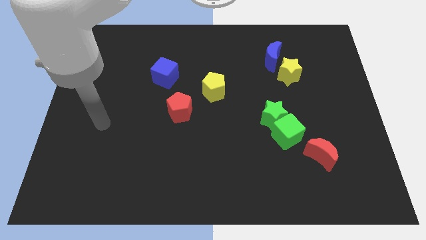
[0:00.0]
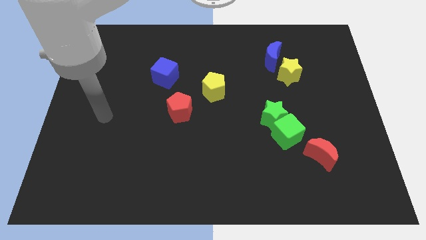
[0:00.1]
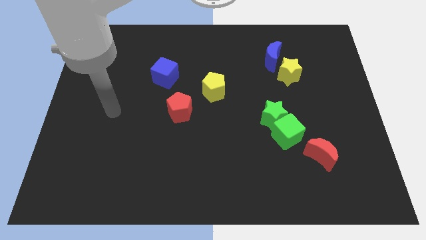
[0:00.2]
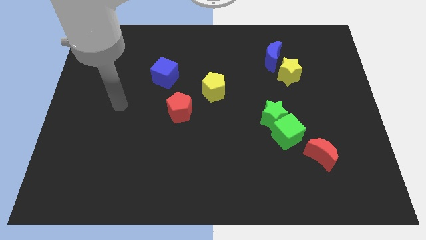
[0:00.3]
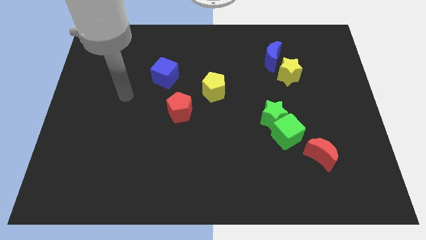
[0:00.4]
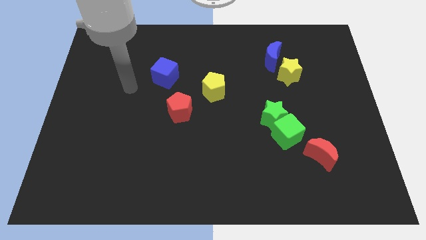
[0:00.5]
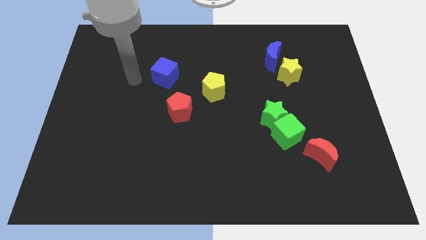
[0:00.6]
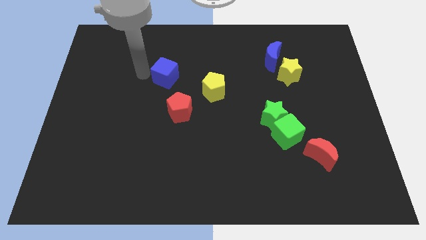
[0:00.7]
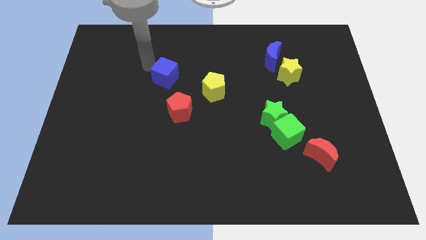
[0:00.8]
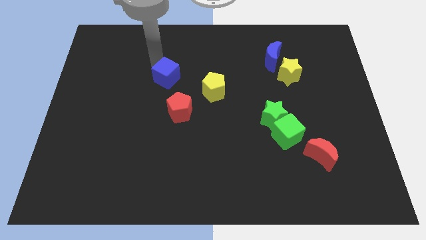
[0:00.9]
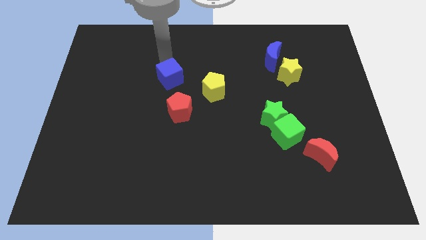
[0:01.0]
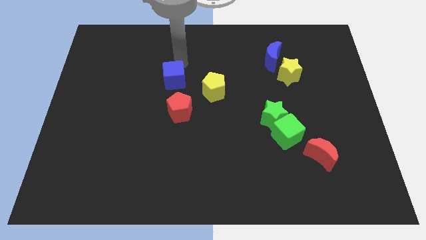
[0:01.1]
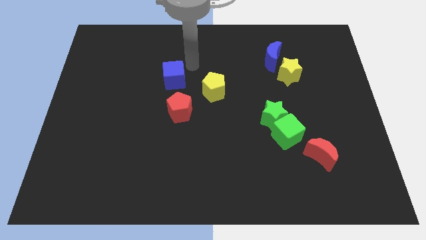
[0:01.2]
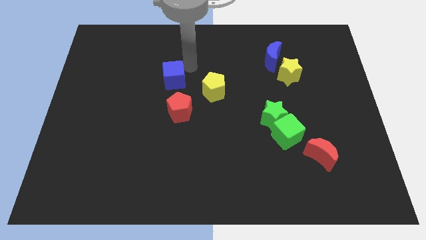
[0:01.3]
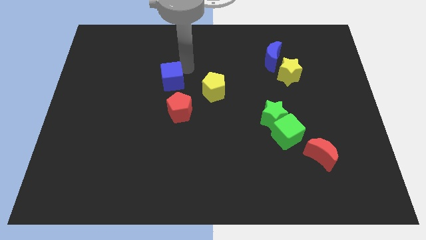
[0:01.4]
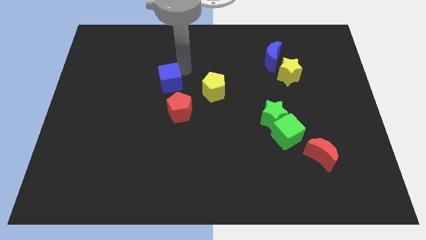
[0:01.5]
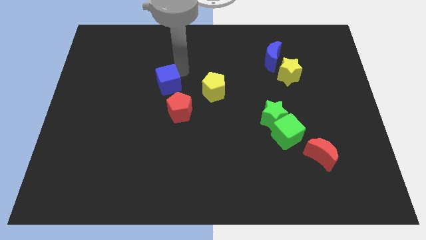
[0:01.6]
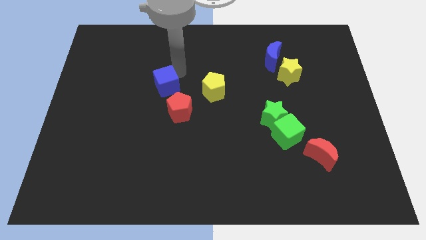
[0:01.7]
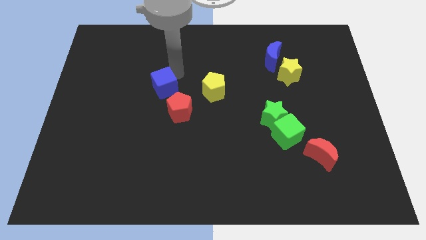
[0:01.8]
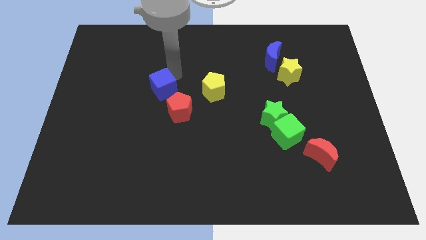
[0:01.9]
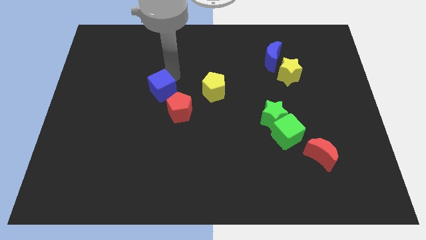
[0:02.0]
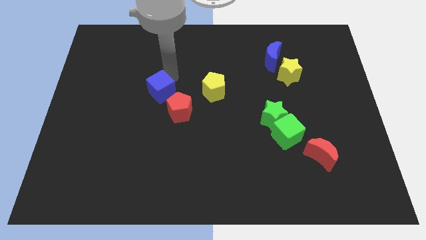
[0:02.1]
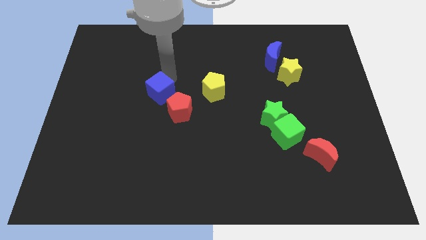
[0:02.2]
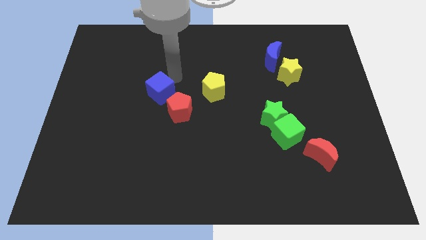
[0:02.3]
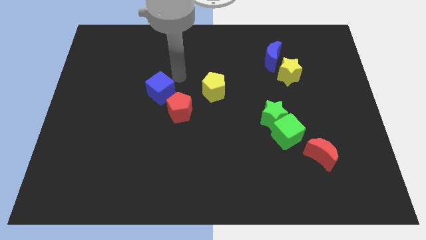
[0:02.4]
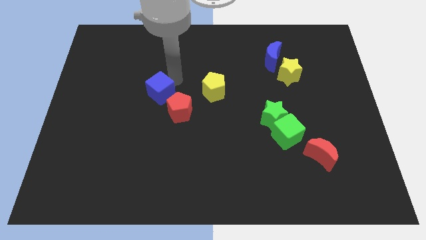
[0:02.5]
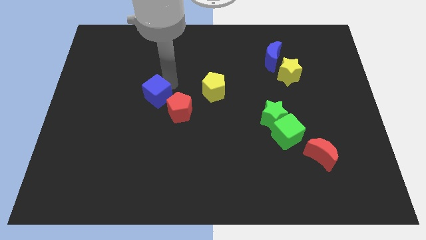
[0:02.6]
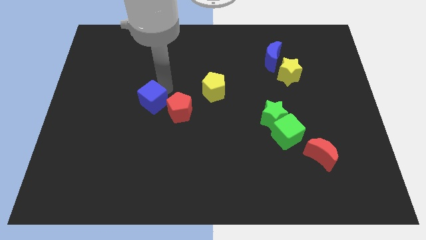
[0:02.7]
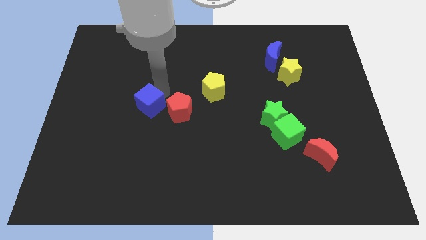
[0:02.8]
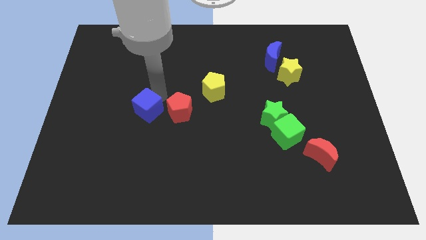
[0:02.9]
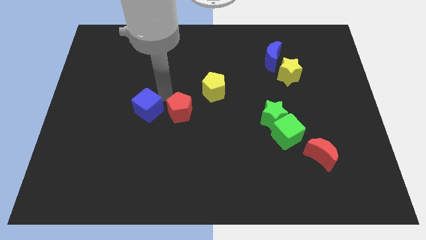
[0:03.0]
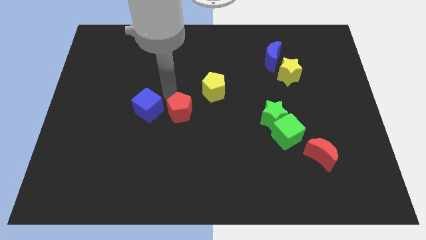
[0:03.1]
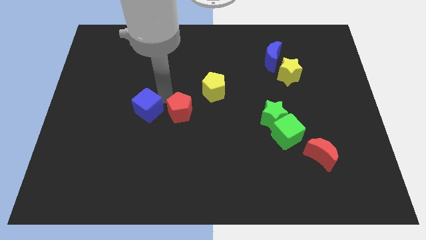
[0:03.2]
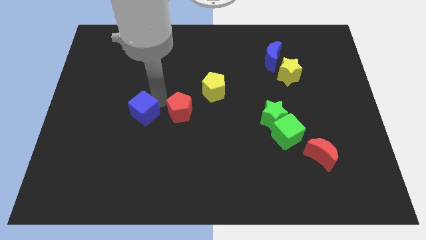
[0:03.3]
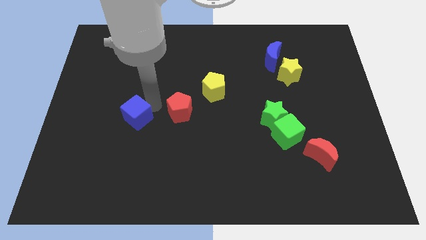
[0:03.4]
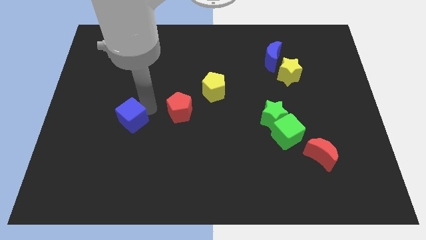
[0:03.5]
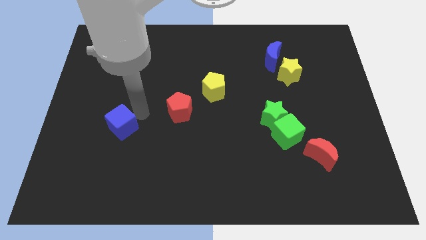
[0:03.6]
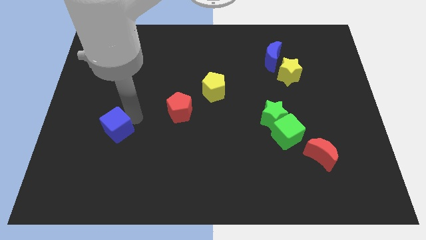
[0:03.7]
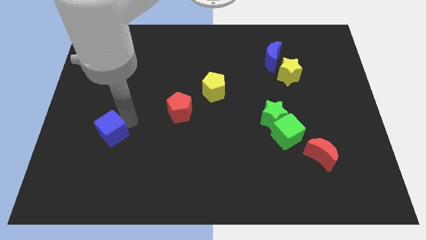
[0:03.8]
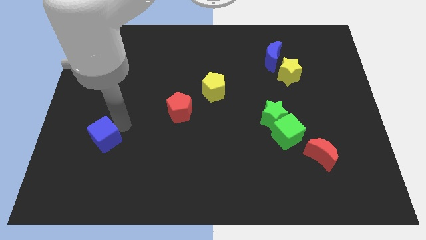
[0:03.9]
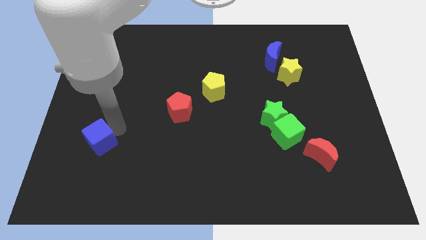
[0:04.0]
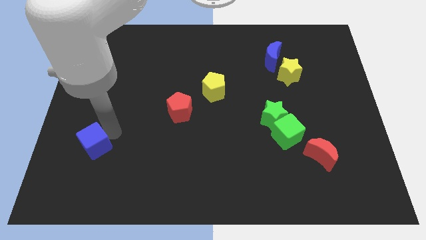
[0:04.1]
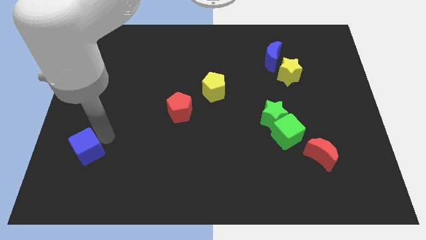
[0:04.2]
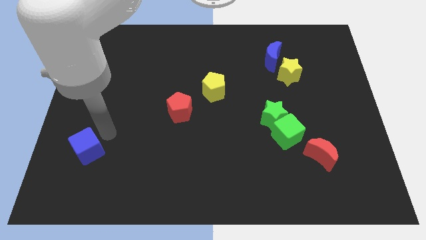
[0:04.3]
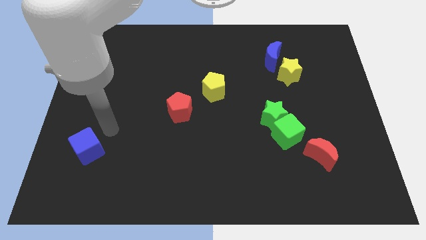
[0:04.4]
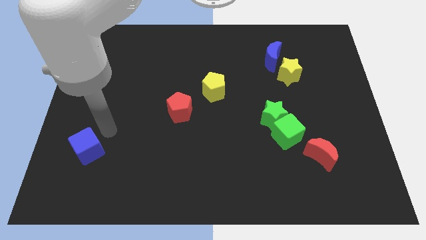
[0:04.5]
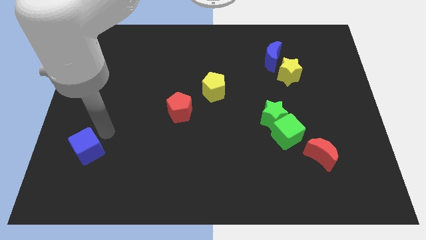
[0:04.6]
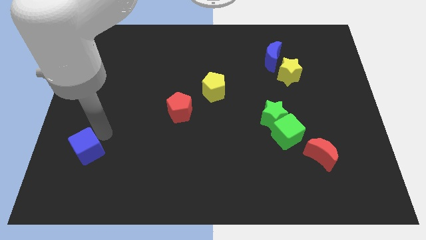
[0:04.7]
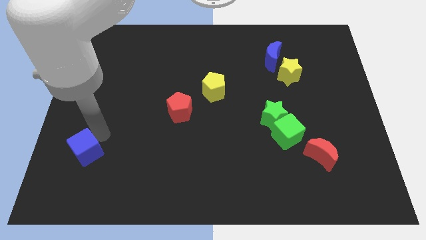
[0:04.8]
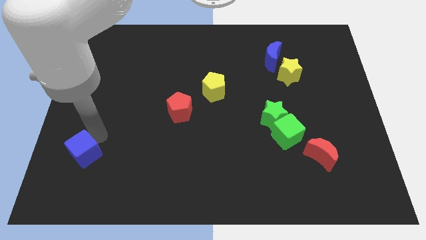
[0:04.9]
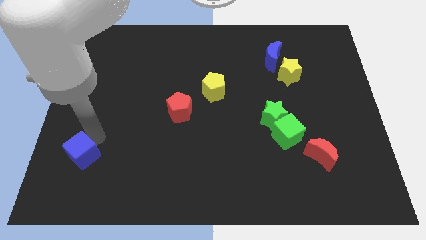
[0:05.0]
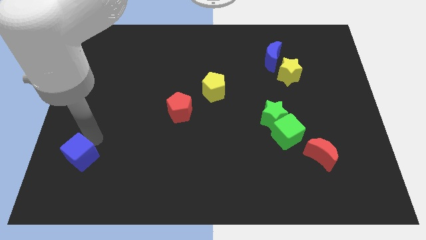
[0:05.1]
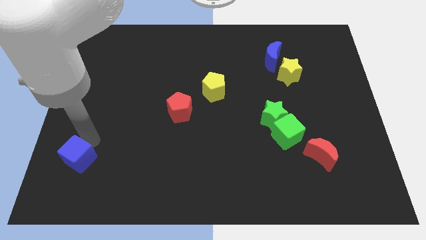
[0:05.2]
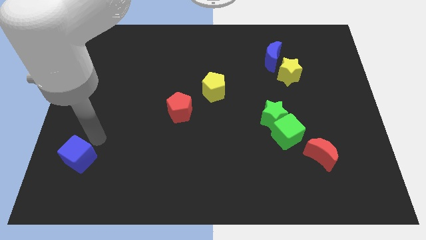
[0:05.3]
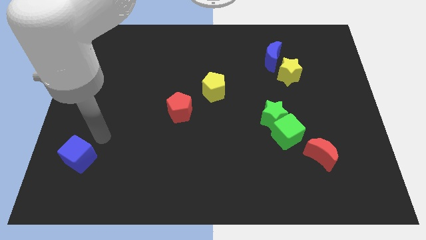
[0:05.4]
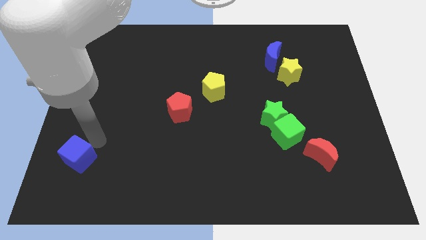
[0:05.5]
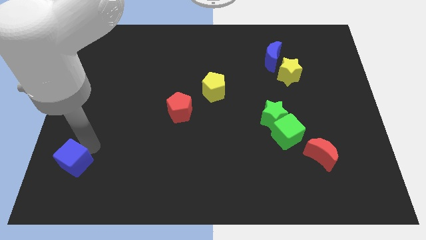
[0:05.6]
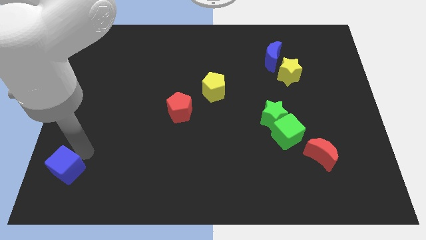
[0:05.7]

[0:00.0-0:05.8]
put the blue cube to the bottom left
